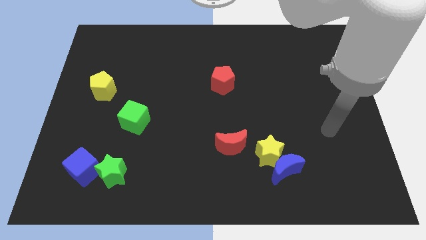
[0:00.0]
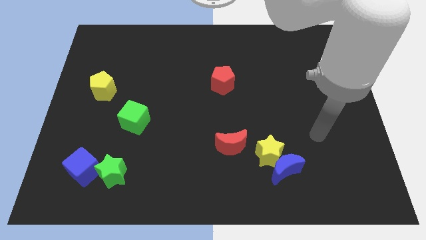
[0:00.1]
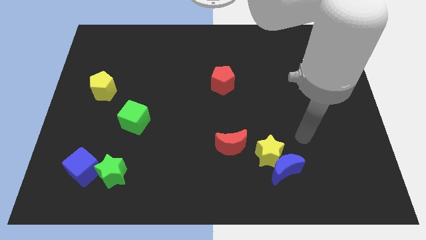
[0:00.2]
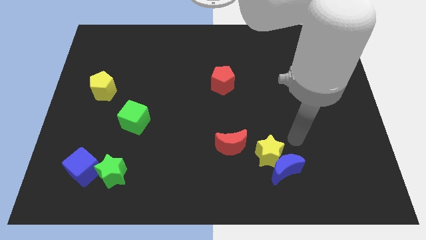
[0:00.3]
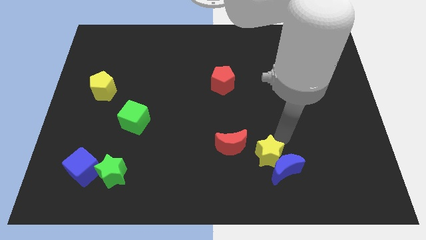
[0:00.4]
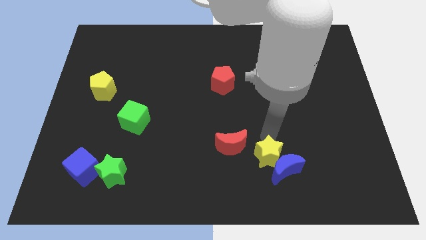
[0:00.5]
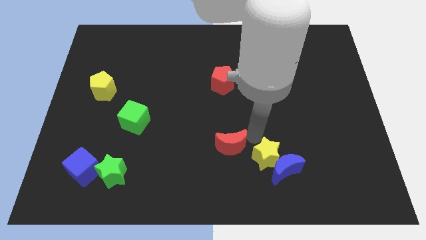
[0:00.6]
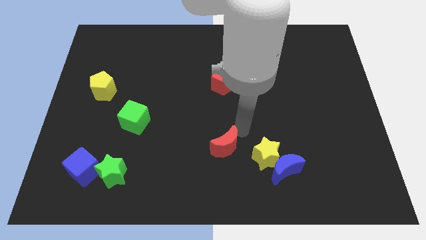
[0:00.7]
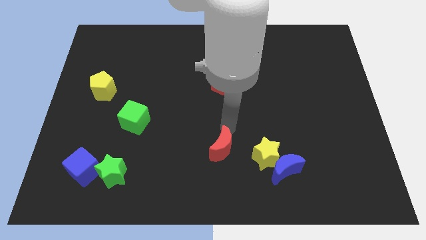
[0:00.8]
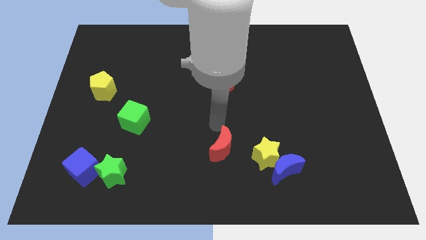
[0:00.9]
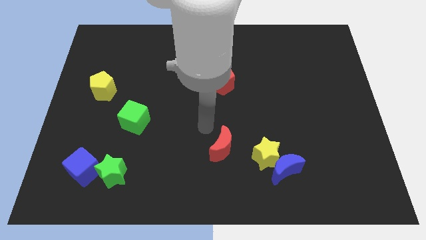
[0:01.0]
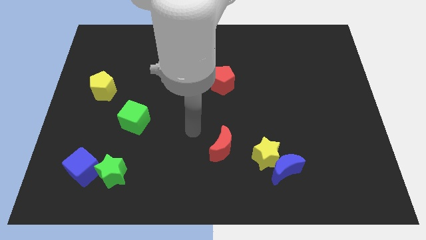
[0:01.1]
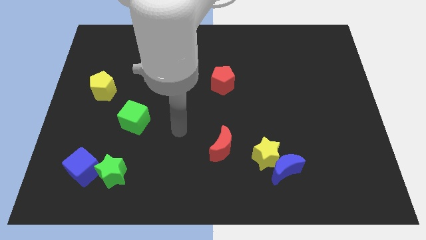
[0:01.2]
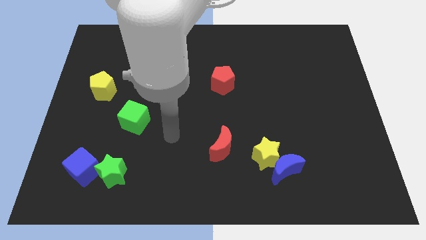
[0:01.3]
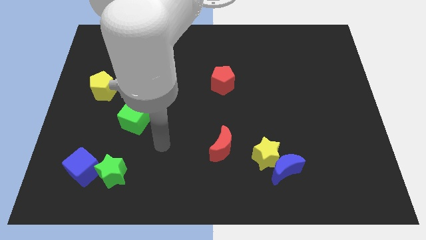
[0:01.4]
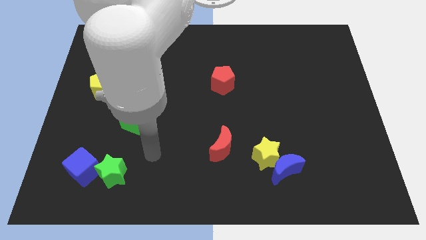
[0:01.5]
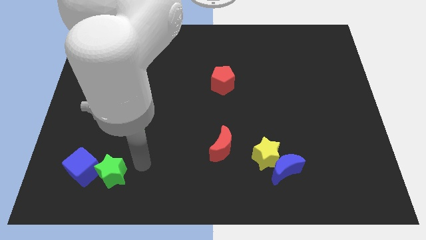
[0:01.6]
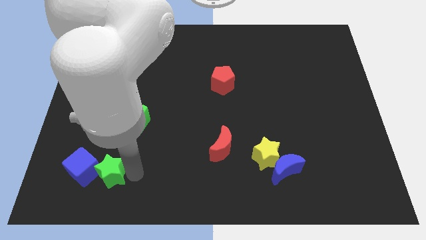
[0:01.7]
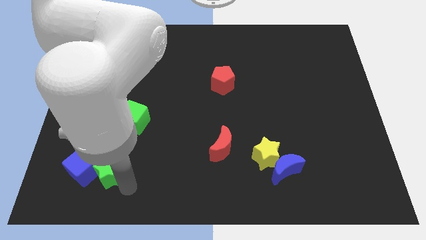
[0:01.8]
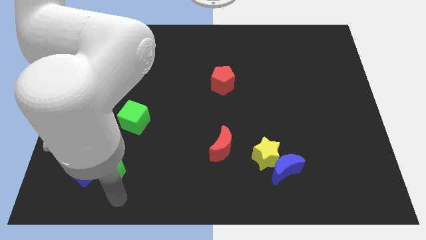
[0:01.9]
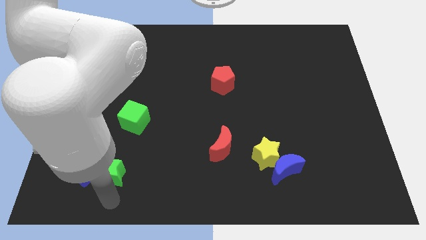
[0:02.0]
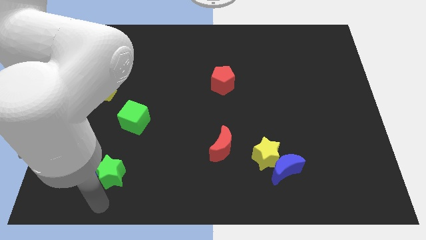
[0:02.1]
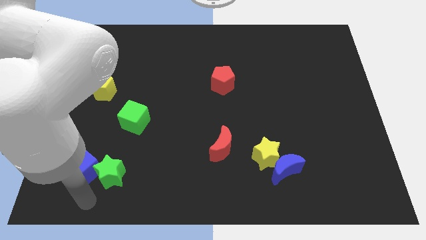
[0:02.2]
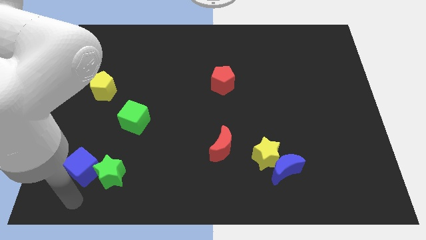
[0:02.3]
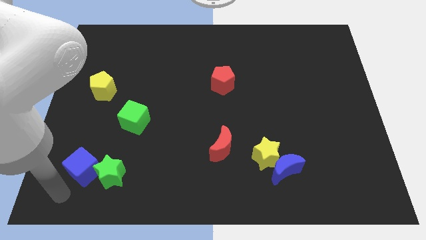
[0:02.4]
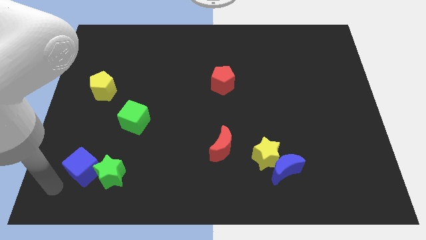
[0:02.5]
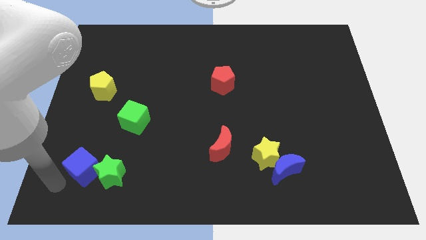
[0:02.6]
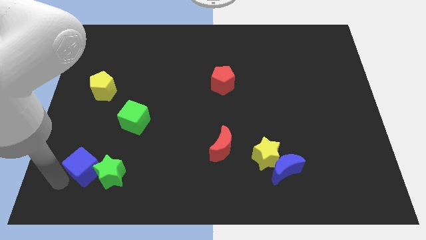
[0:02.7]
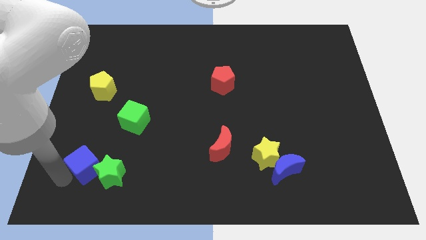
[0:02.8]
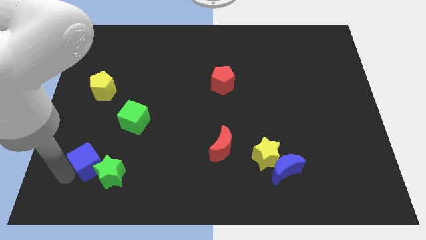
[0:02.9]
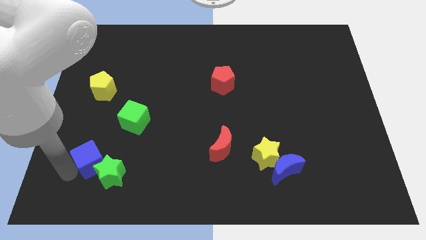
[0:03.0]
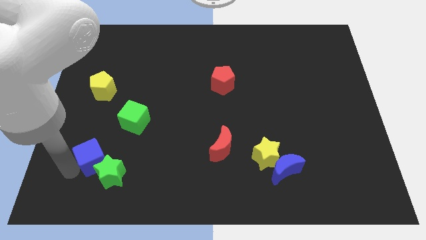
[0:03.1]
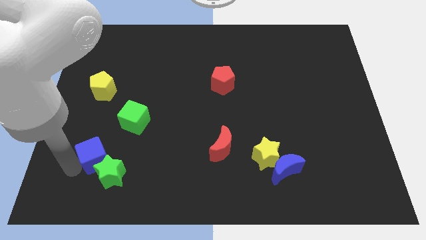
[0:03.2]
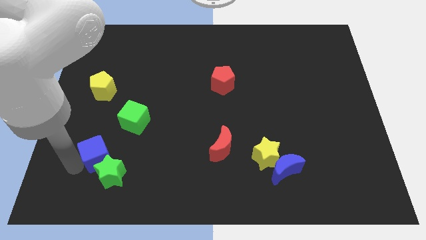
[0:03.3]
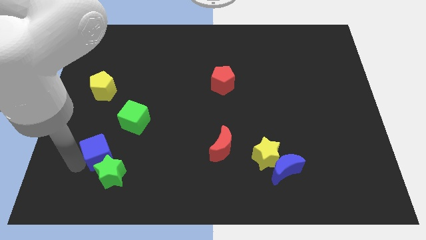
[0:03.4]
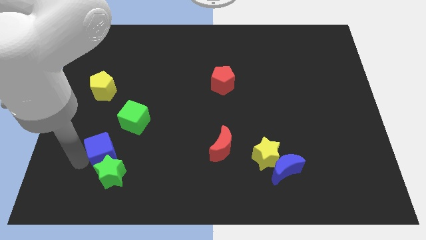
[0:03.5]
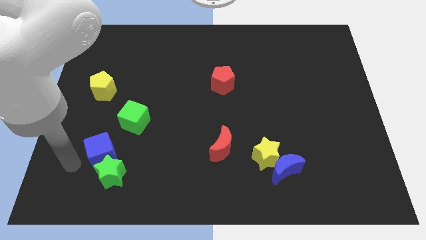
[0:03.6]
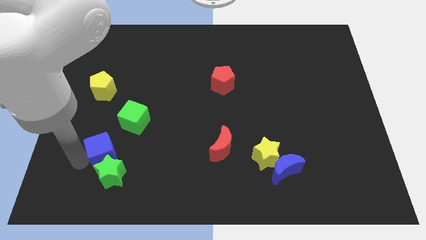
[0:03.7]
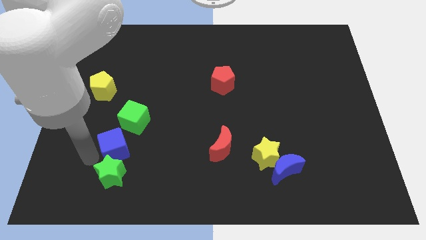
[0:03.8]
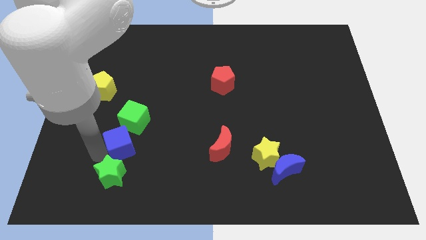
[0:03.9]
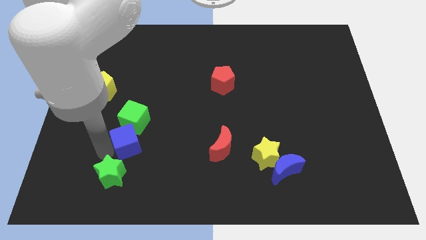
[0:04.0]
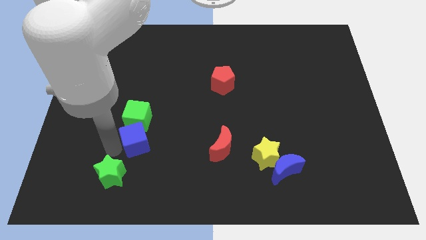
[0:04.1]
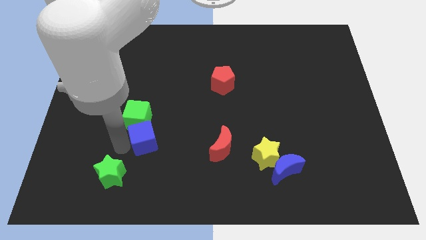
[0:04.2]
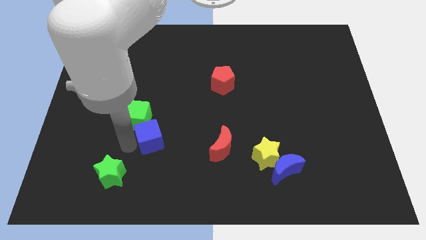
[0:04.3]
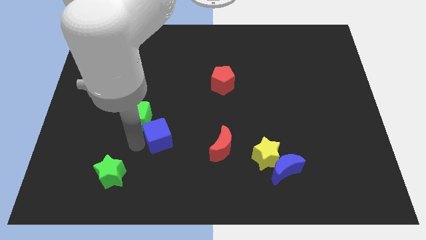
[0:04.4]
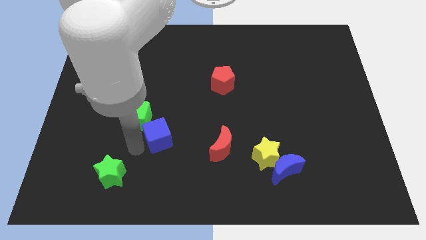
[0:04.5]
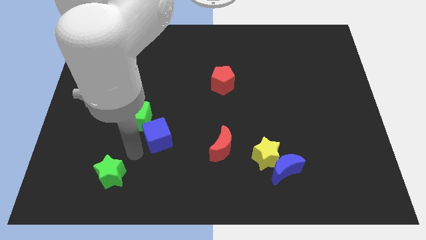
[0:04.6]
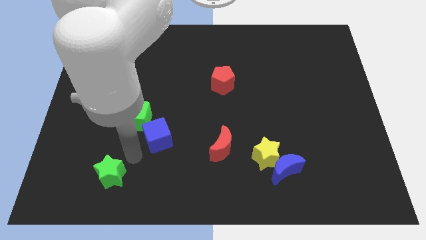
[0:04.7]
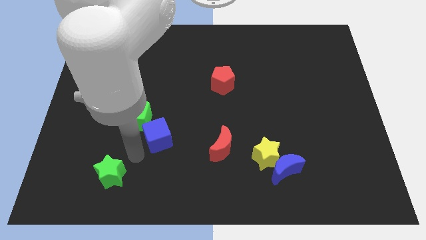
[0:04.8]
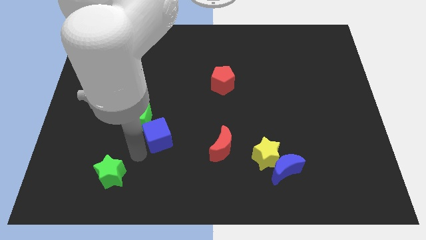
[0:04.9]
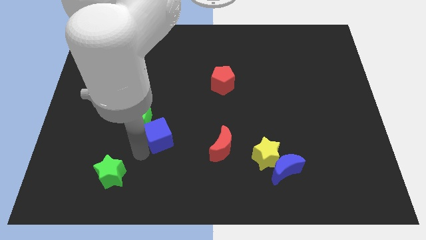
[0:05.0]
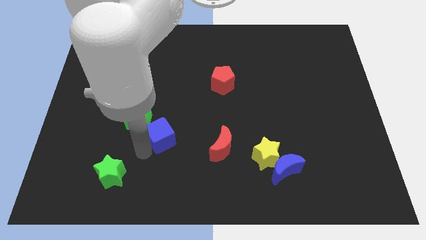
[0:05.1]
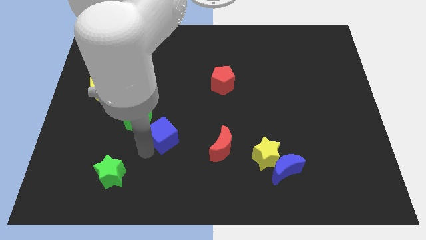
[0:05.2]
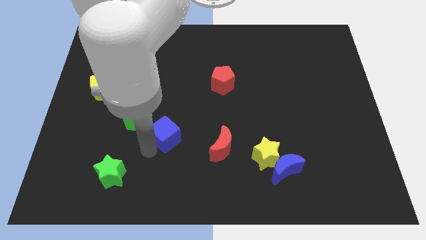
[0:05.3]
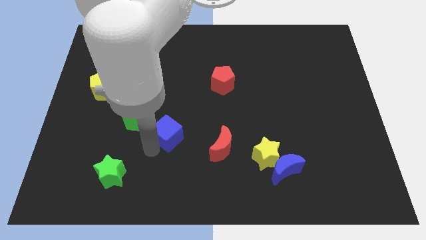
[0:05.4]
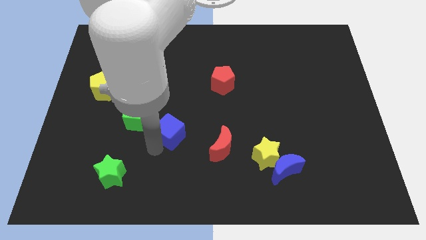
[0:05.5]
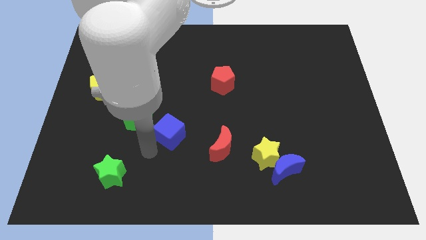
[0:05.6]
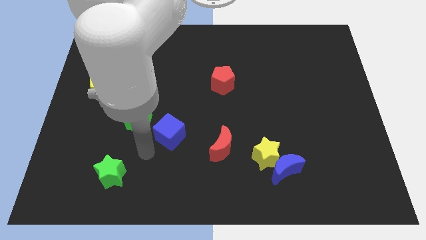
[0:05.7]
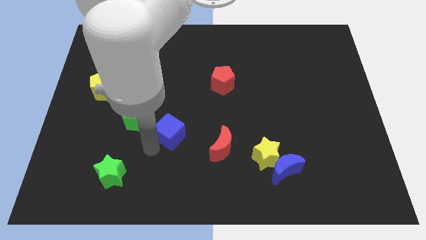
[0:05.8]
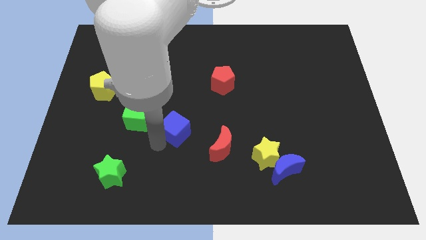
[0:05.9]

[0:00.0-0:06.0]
put the blue cube to the middle
